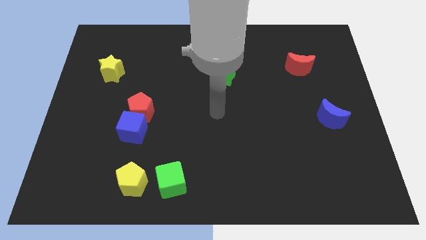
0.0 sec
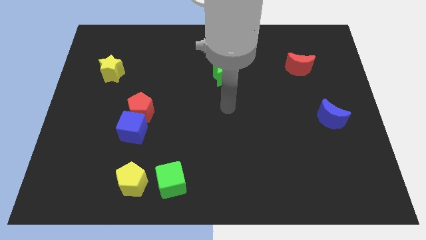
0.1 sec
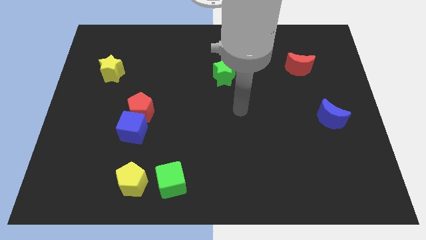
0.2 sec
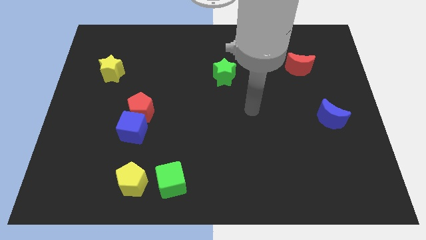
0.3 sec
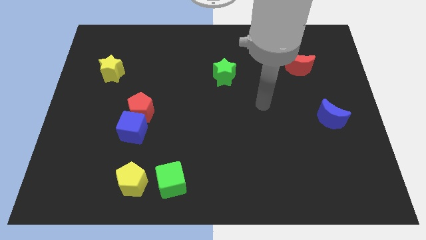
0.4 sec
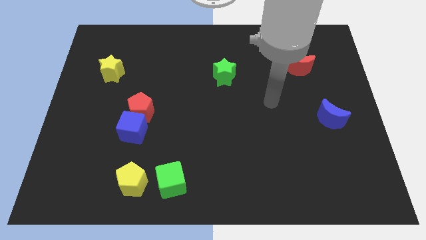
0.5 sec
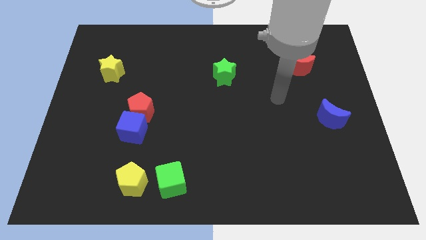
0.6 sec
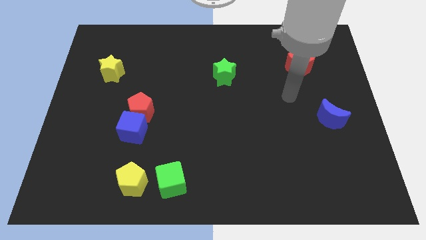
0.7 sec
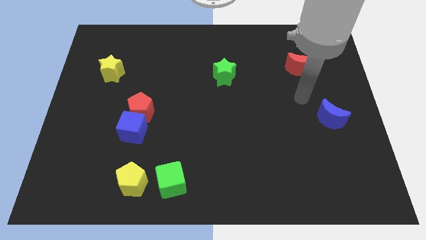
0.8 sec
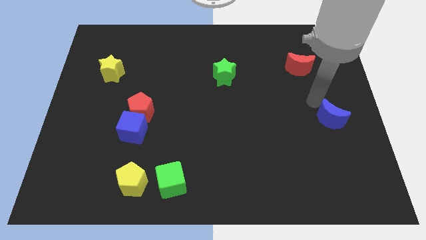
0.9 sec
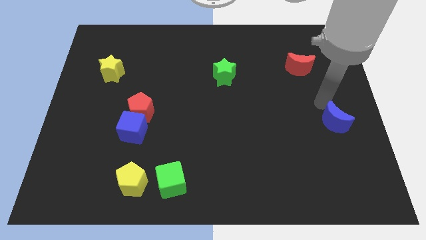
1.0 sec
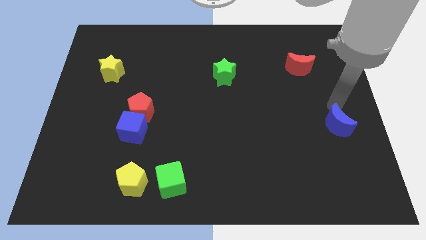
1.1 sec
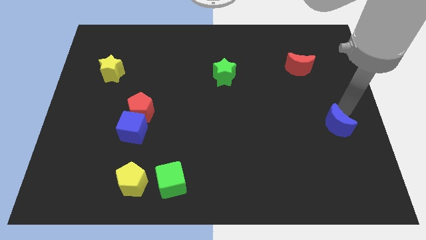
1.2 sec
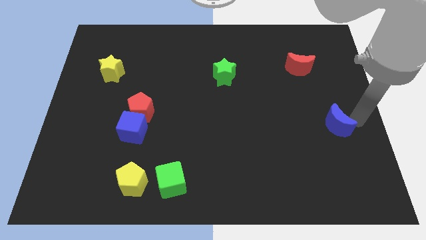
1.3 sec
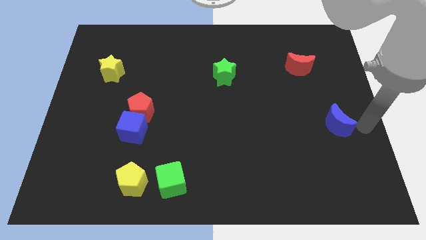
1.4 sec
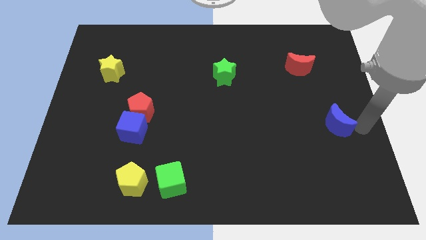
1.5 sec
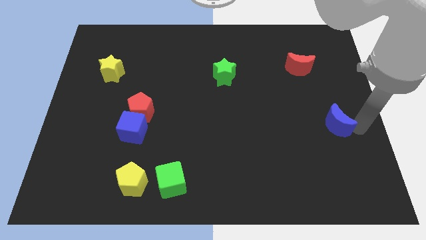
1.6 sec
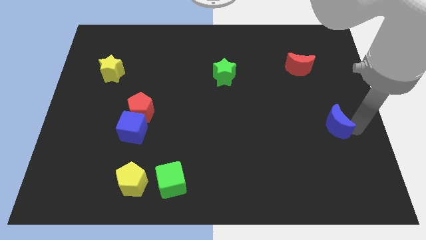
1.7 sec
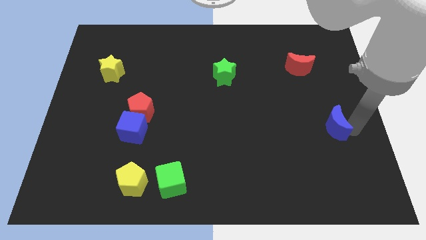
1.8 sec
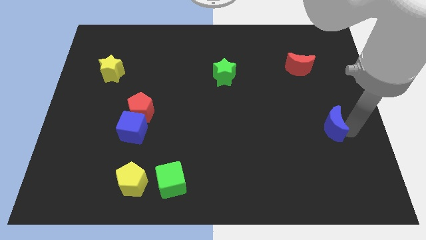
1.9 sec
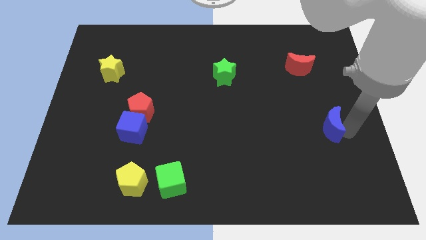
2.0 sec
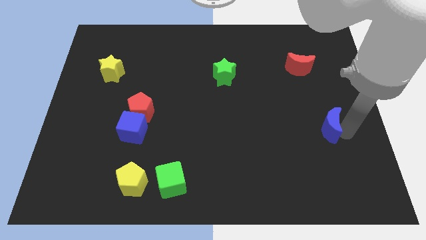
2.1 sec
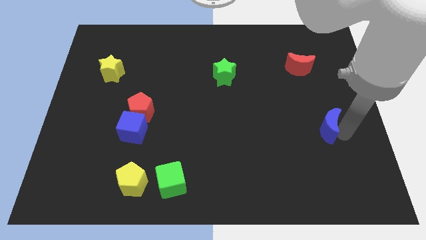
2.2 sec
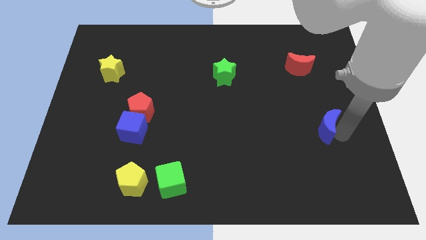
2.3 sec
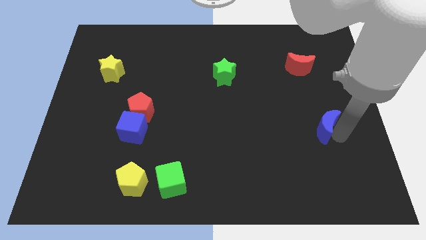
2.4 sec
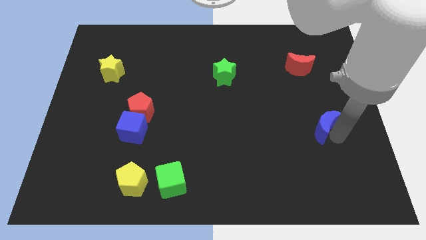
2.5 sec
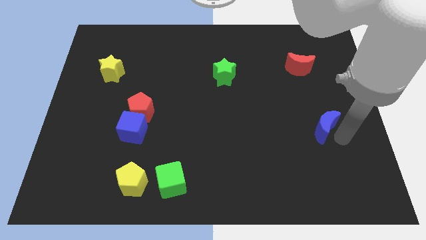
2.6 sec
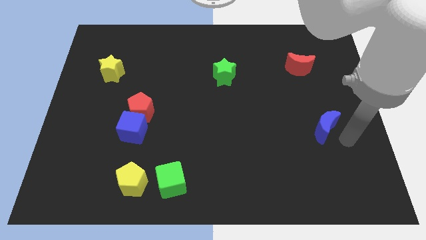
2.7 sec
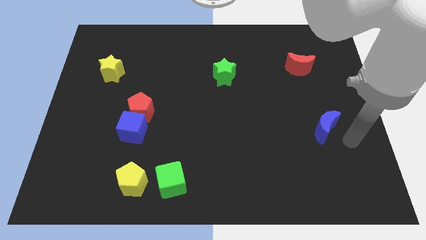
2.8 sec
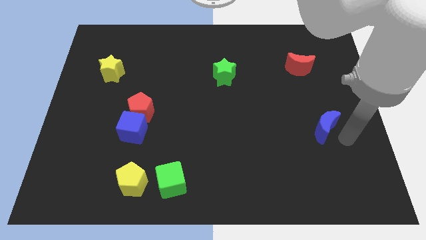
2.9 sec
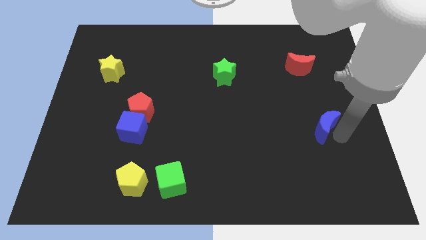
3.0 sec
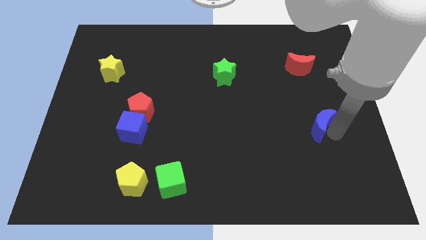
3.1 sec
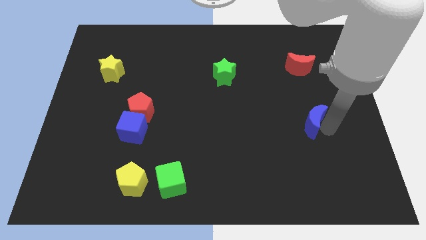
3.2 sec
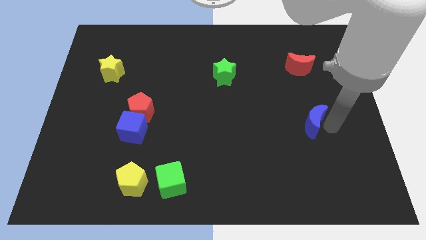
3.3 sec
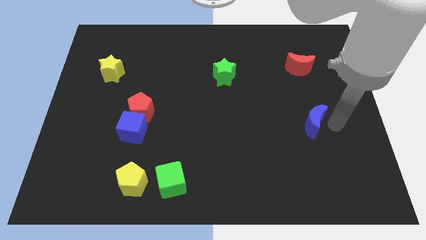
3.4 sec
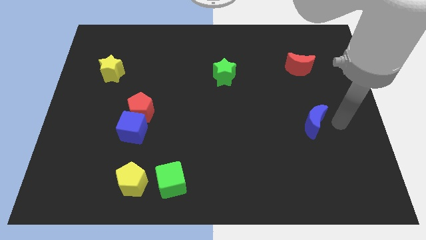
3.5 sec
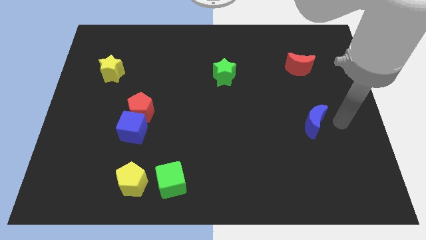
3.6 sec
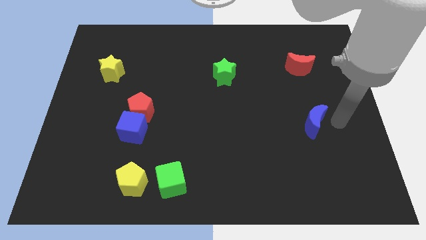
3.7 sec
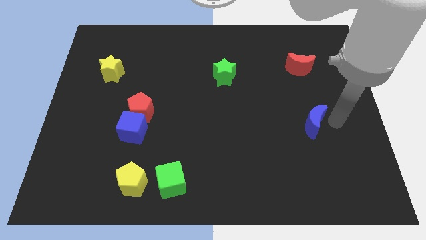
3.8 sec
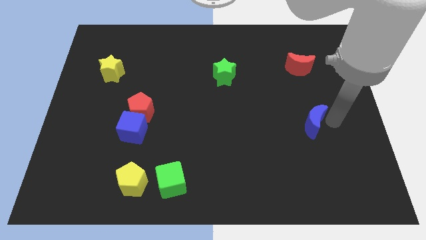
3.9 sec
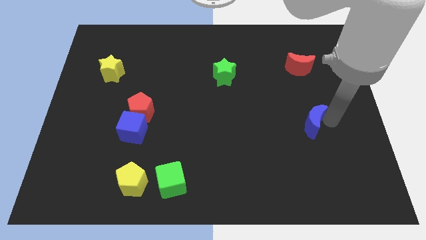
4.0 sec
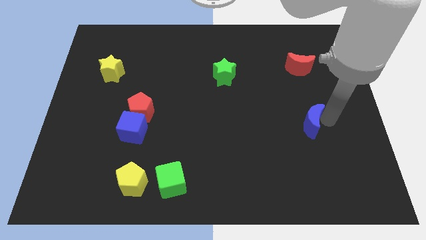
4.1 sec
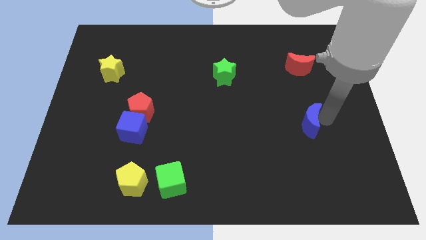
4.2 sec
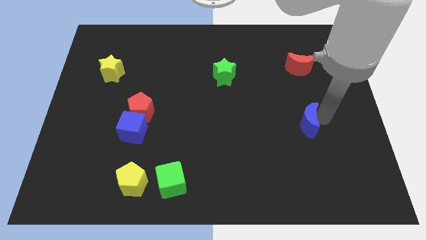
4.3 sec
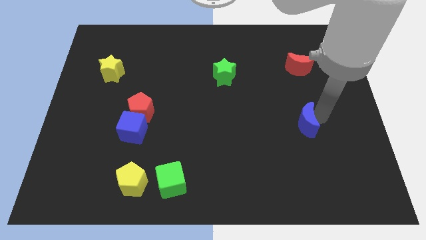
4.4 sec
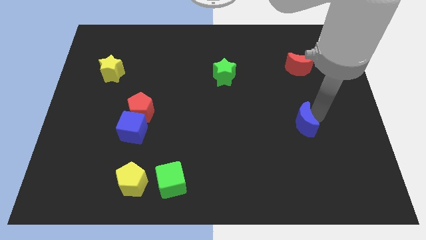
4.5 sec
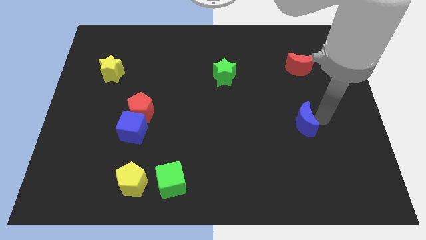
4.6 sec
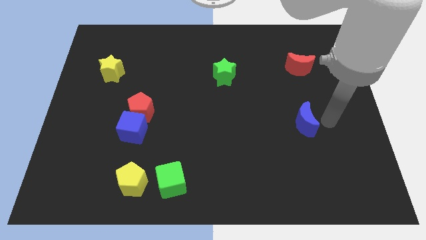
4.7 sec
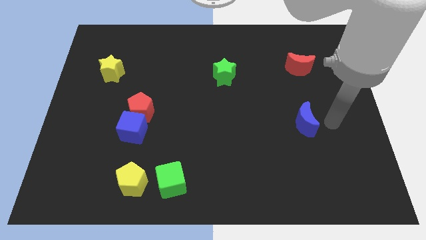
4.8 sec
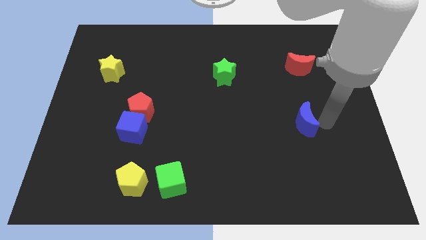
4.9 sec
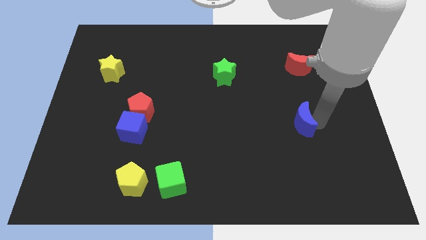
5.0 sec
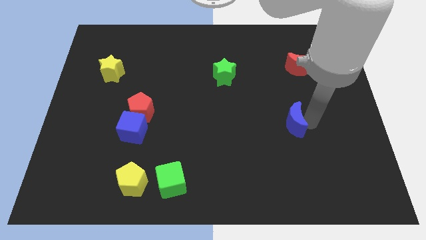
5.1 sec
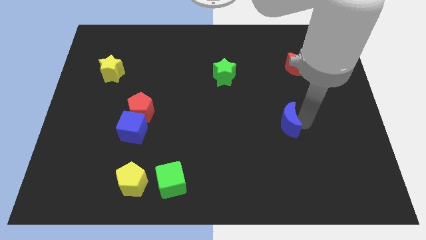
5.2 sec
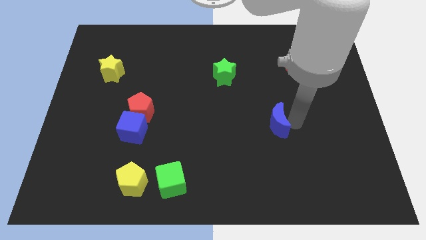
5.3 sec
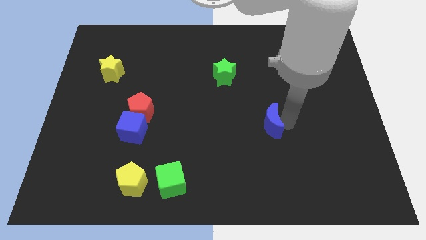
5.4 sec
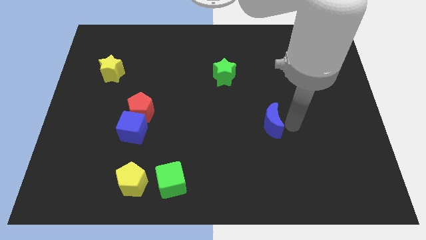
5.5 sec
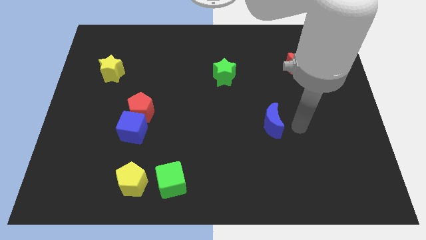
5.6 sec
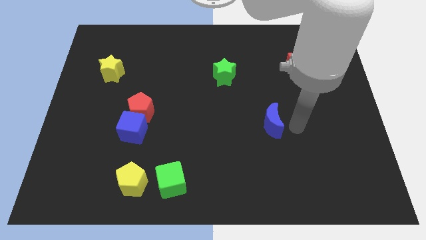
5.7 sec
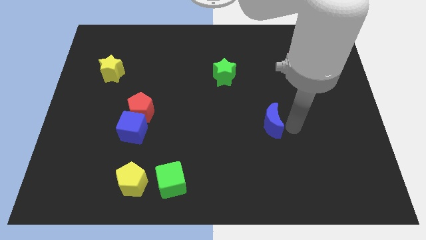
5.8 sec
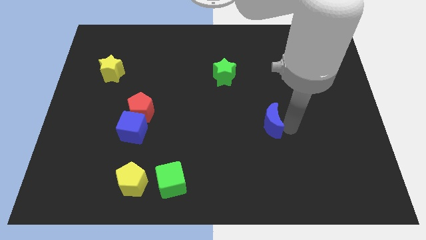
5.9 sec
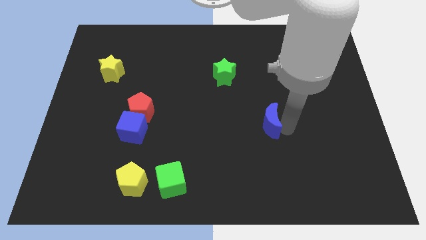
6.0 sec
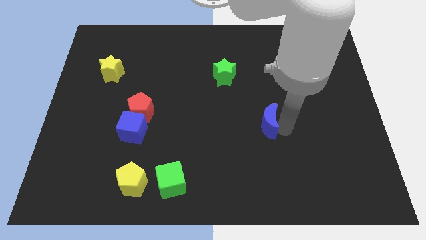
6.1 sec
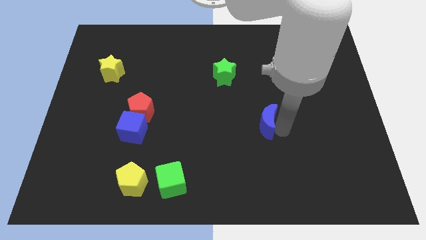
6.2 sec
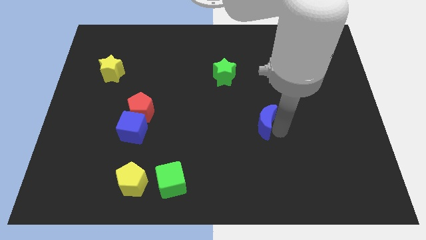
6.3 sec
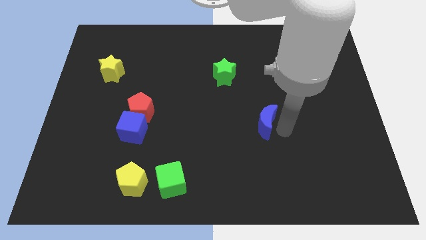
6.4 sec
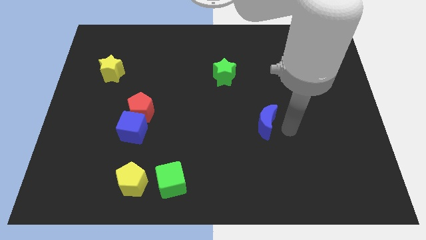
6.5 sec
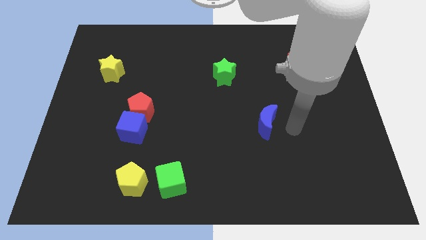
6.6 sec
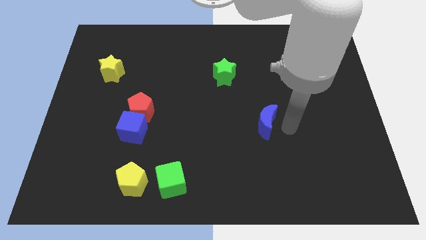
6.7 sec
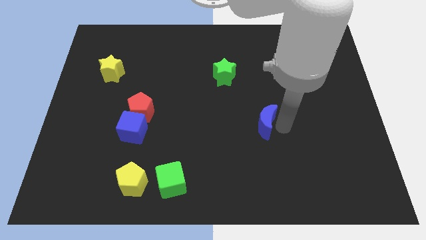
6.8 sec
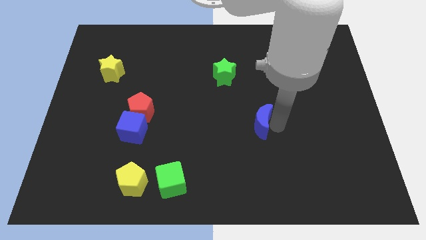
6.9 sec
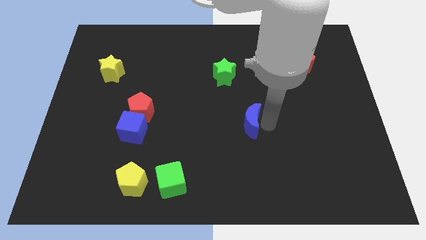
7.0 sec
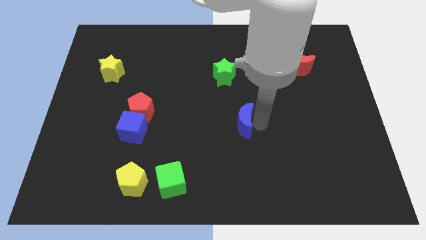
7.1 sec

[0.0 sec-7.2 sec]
push the blue moon left

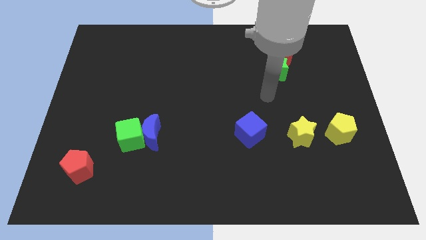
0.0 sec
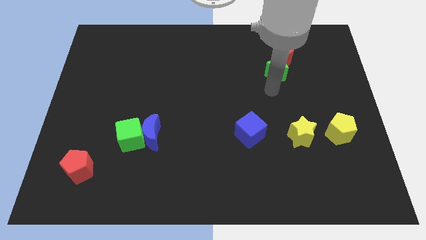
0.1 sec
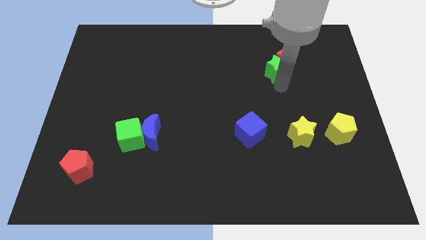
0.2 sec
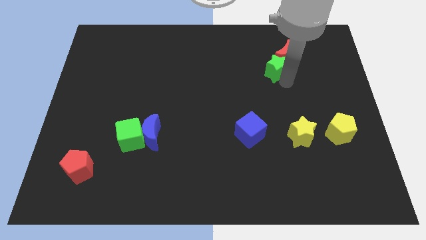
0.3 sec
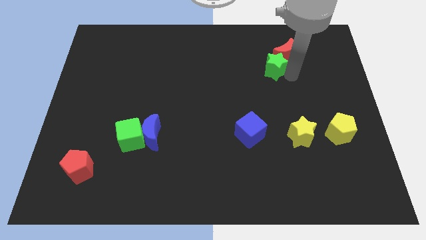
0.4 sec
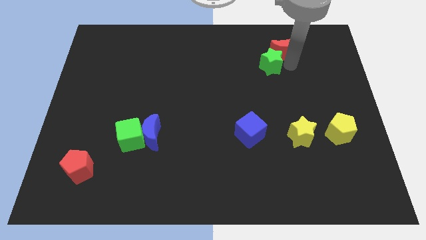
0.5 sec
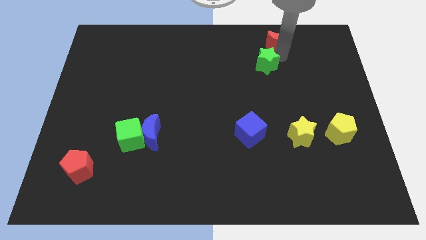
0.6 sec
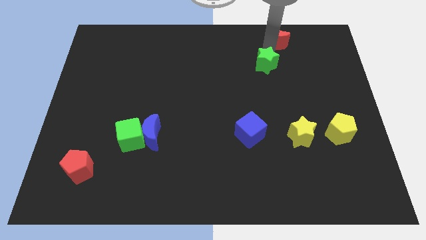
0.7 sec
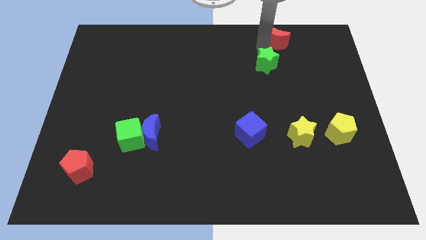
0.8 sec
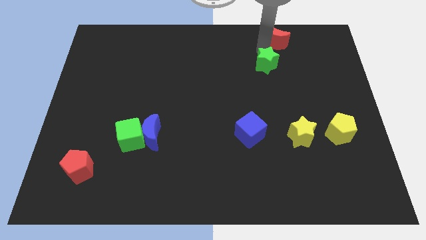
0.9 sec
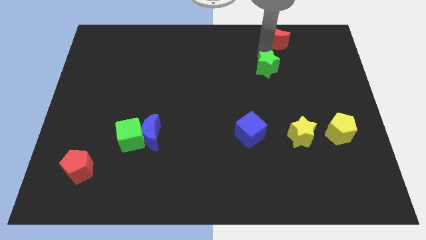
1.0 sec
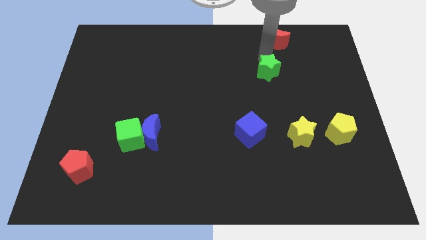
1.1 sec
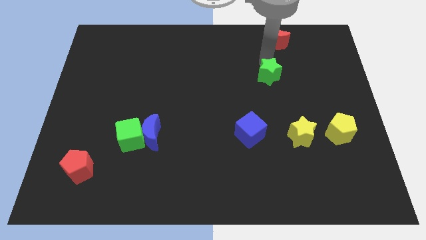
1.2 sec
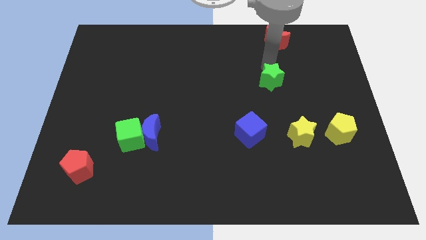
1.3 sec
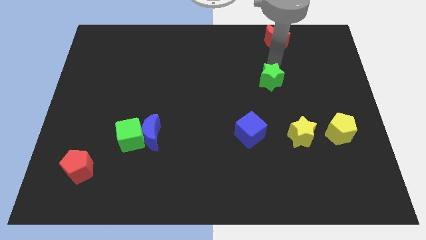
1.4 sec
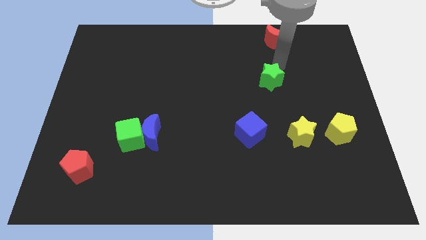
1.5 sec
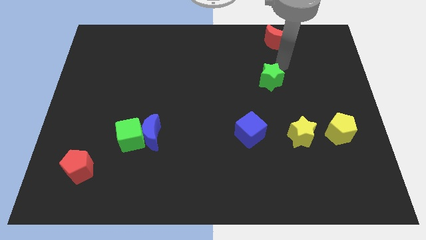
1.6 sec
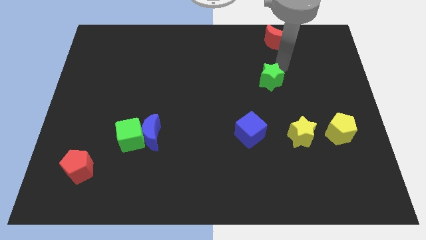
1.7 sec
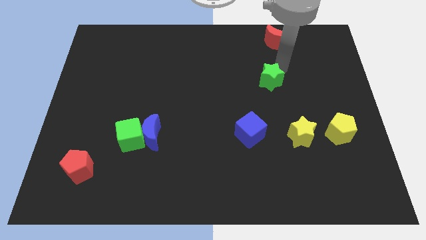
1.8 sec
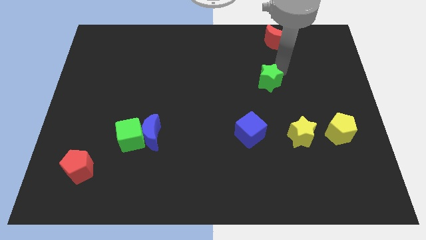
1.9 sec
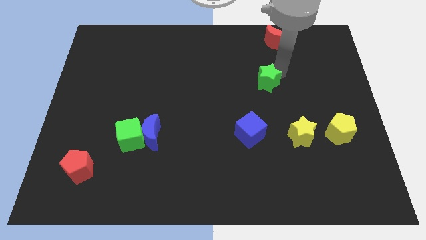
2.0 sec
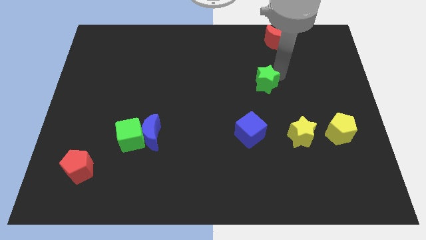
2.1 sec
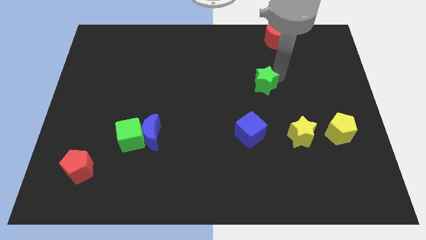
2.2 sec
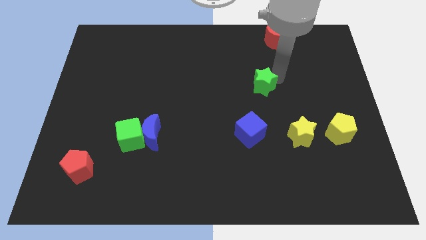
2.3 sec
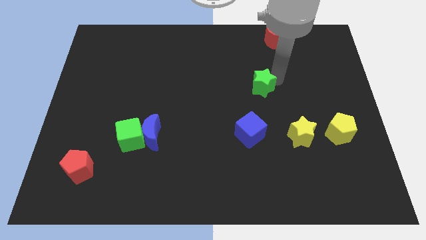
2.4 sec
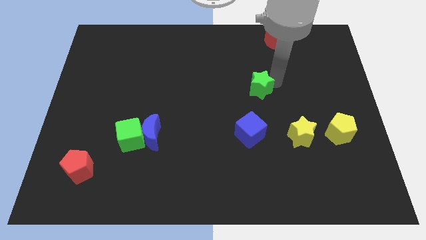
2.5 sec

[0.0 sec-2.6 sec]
slightly move the green star downwards and to the left
